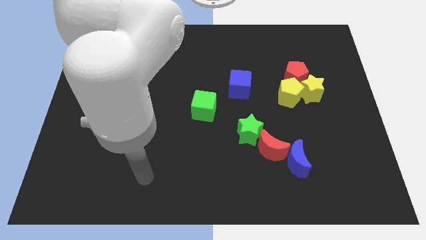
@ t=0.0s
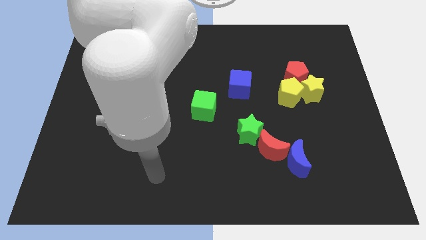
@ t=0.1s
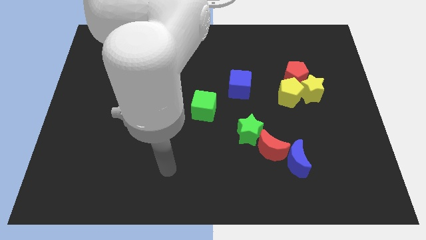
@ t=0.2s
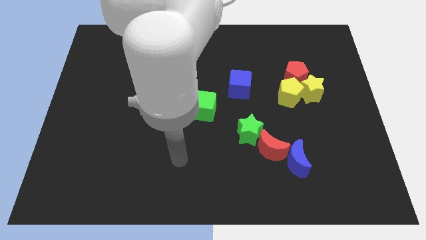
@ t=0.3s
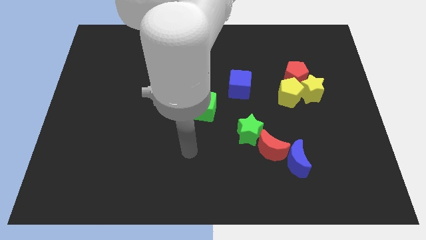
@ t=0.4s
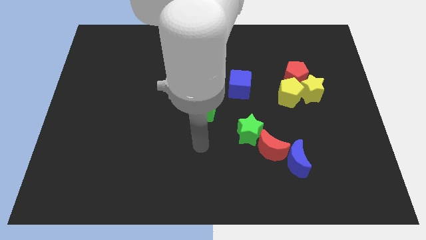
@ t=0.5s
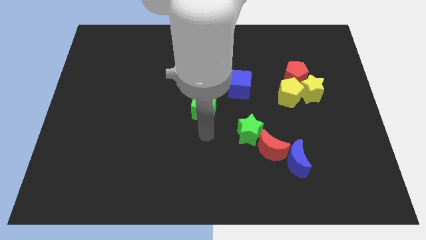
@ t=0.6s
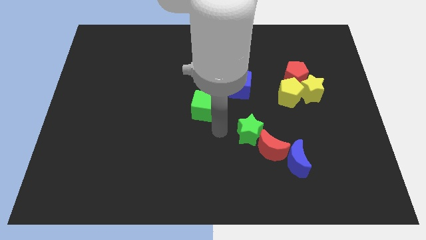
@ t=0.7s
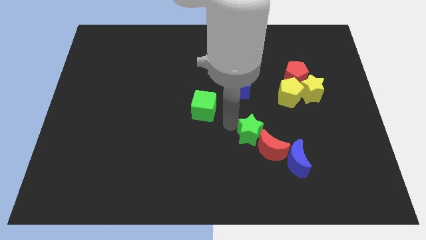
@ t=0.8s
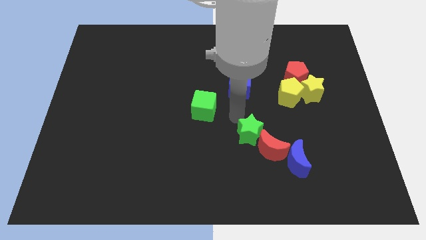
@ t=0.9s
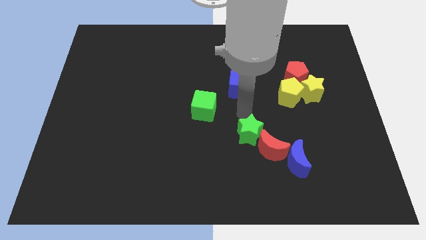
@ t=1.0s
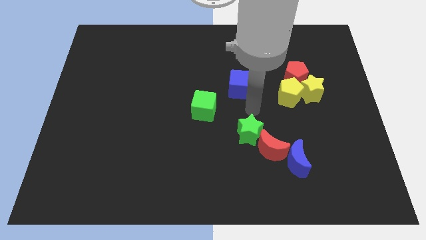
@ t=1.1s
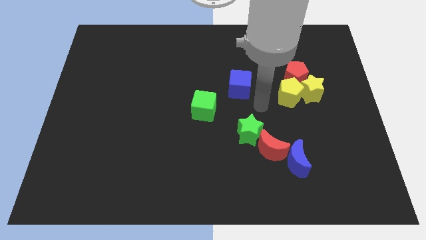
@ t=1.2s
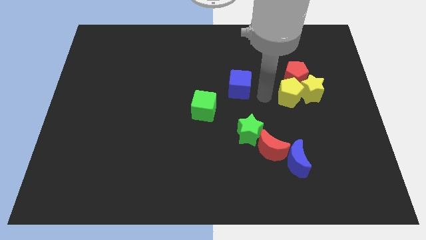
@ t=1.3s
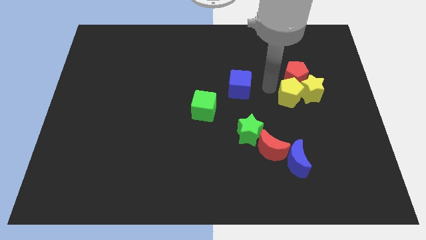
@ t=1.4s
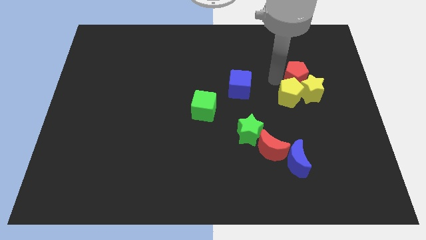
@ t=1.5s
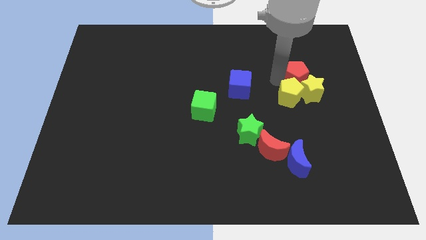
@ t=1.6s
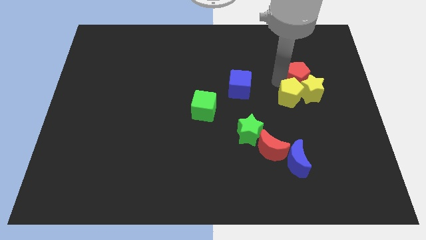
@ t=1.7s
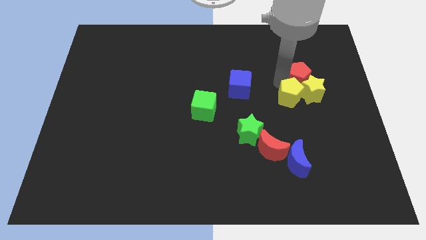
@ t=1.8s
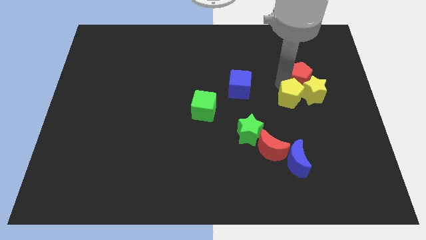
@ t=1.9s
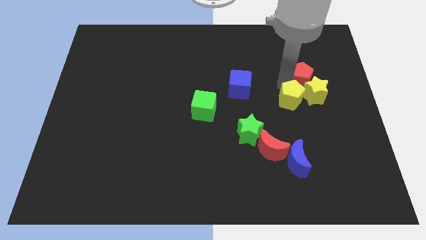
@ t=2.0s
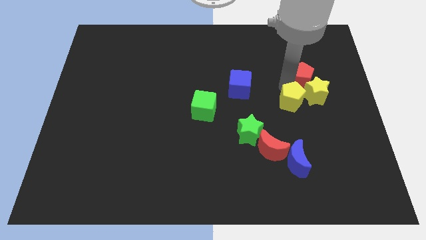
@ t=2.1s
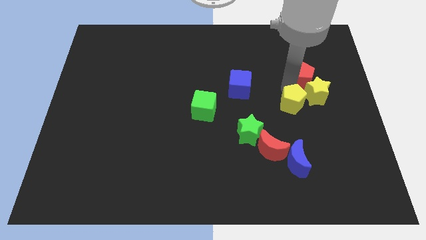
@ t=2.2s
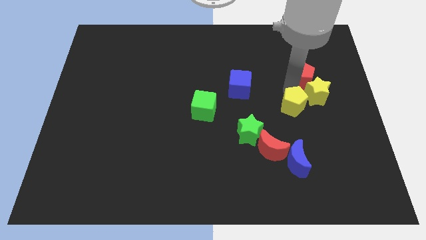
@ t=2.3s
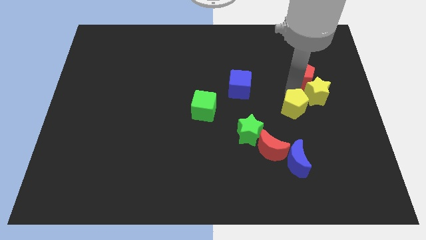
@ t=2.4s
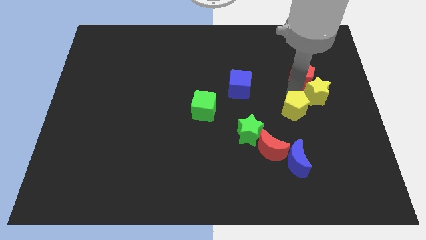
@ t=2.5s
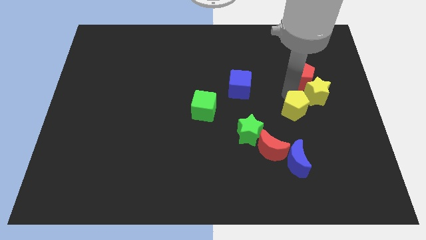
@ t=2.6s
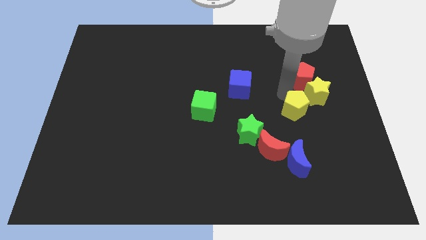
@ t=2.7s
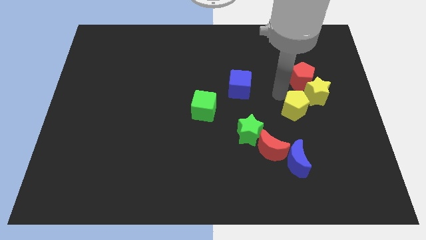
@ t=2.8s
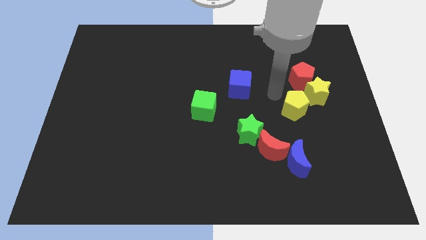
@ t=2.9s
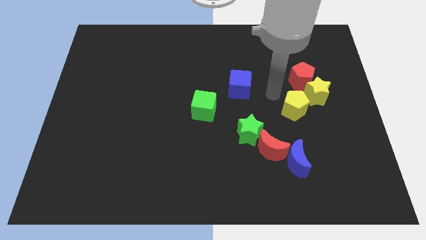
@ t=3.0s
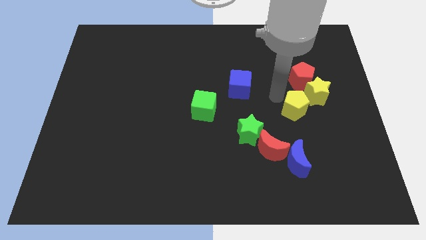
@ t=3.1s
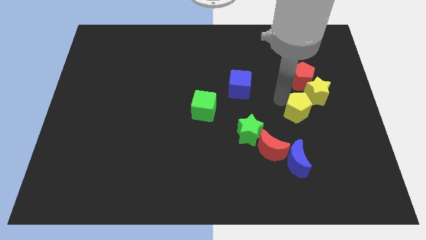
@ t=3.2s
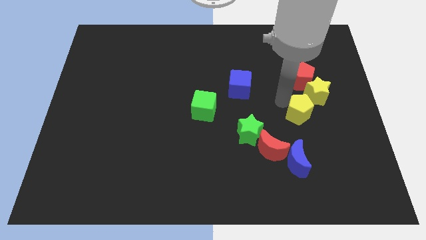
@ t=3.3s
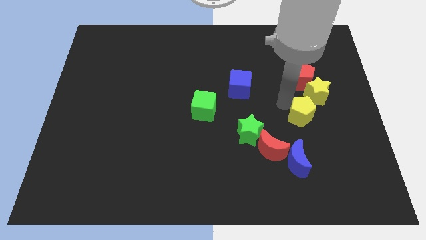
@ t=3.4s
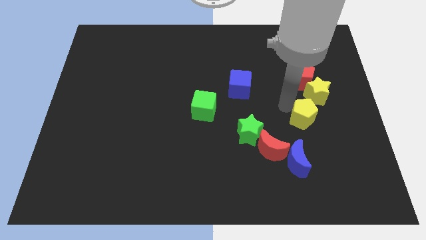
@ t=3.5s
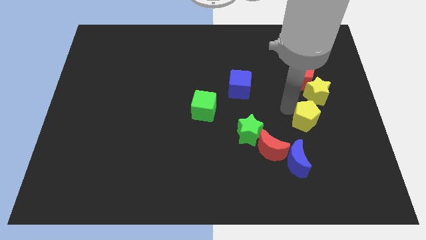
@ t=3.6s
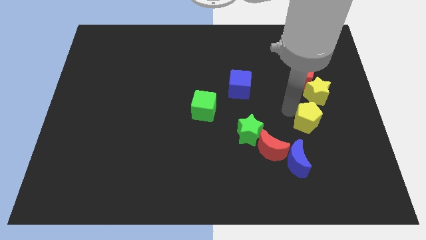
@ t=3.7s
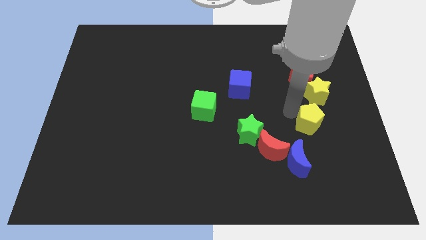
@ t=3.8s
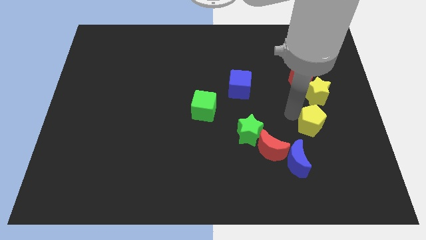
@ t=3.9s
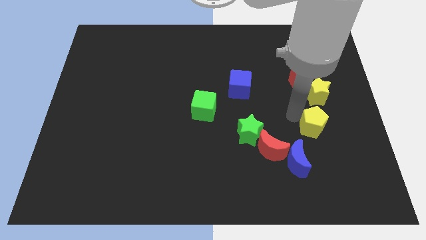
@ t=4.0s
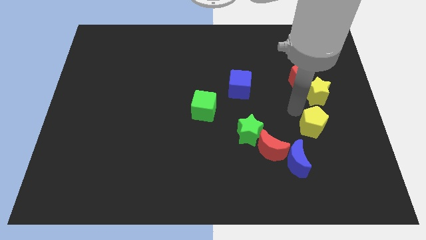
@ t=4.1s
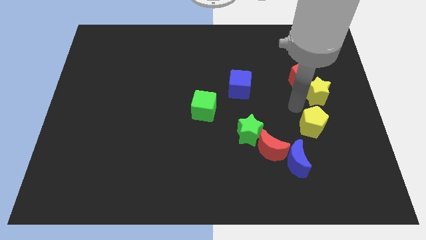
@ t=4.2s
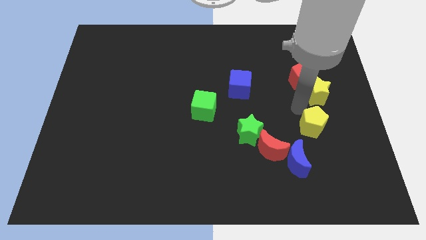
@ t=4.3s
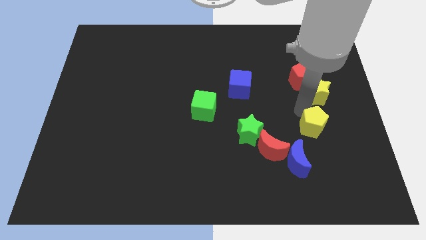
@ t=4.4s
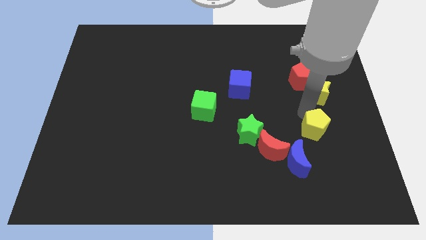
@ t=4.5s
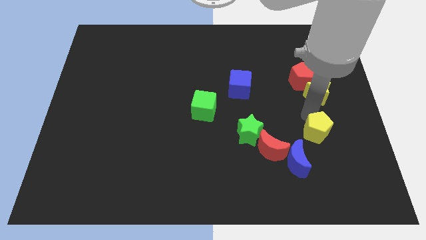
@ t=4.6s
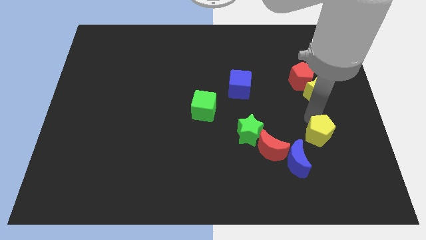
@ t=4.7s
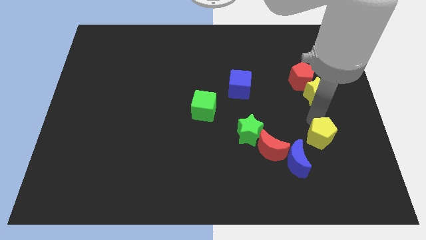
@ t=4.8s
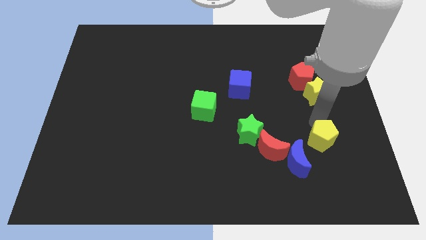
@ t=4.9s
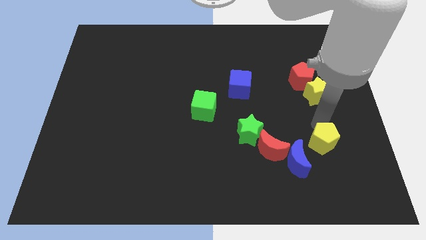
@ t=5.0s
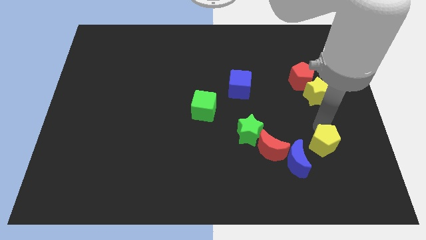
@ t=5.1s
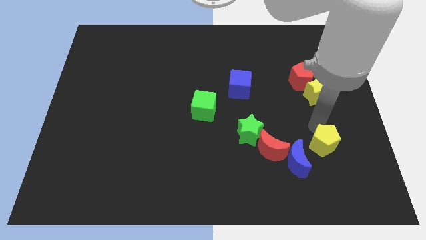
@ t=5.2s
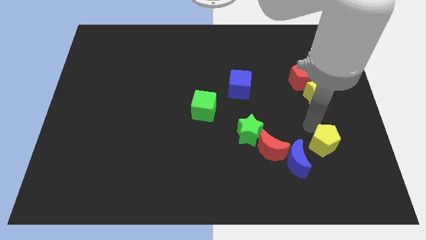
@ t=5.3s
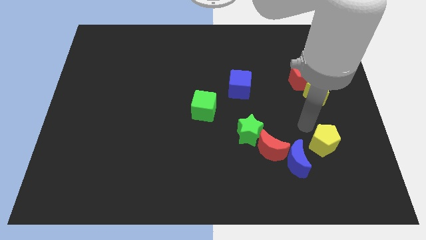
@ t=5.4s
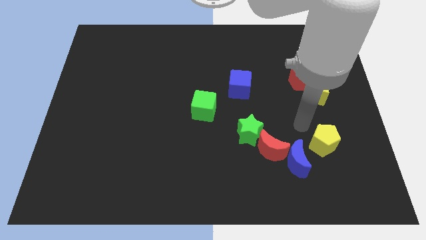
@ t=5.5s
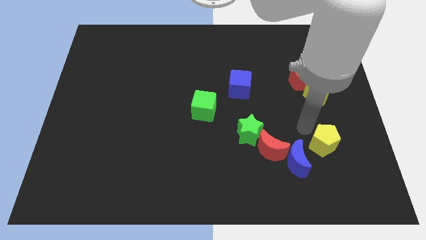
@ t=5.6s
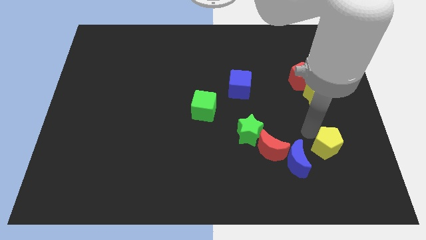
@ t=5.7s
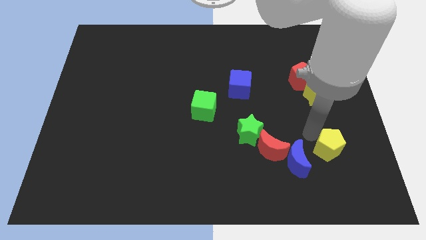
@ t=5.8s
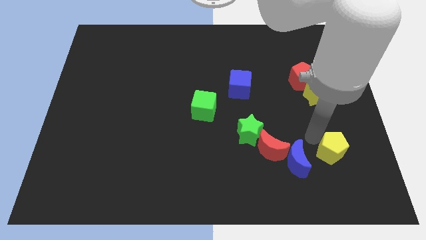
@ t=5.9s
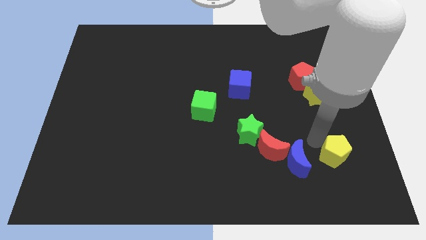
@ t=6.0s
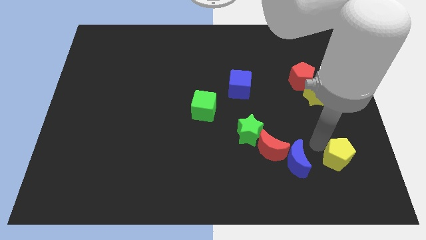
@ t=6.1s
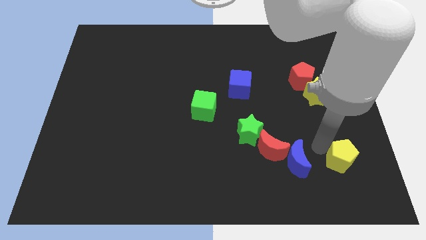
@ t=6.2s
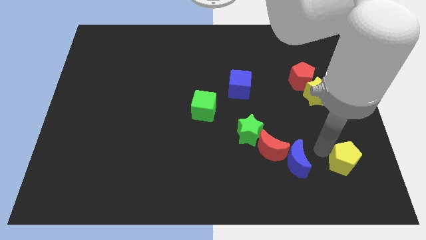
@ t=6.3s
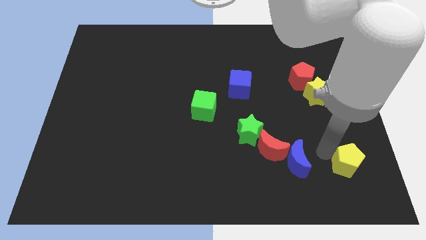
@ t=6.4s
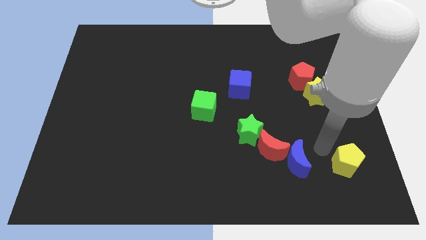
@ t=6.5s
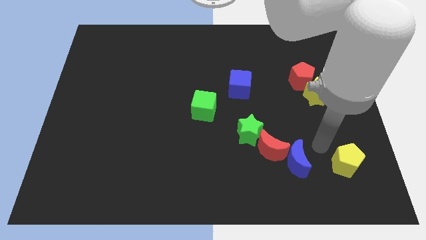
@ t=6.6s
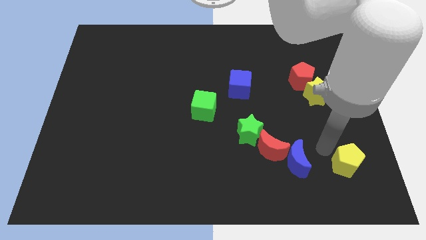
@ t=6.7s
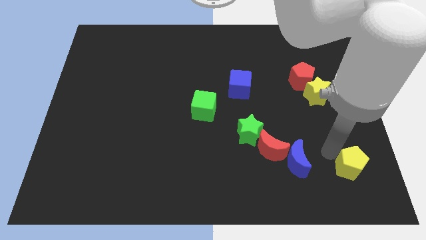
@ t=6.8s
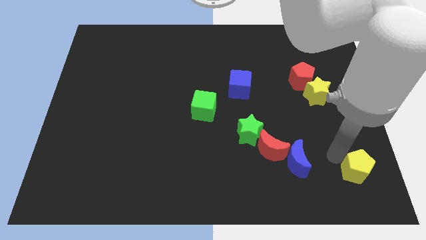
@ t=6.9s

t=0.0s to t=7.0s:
slide the yellow pentagon to the bottom right corner
